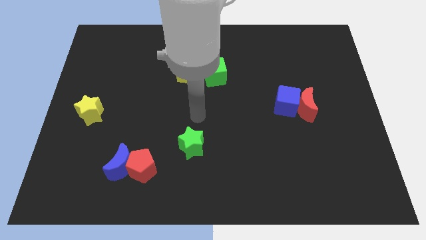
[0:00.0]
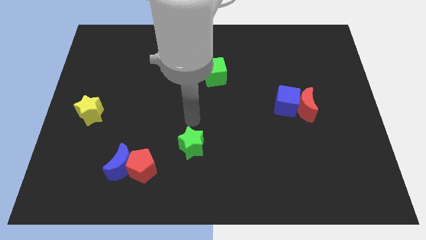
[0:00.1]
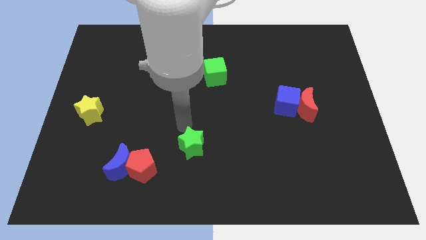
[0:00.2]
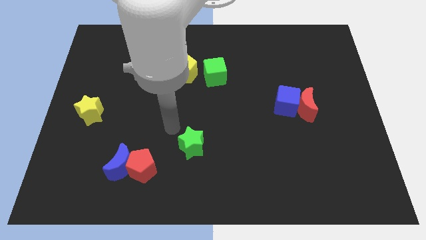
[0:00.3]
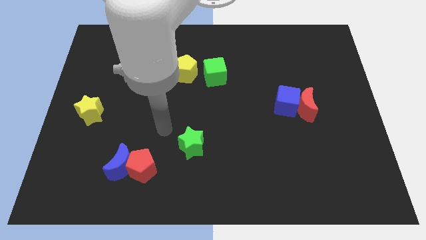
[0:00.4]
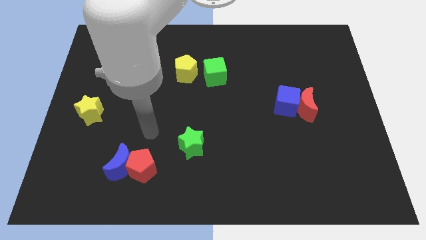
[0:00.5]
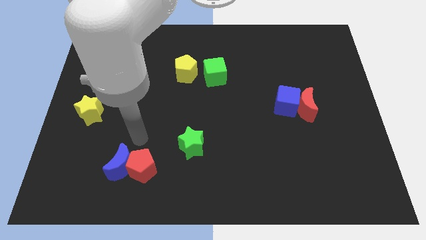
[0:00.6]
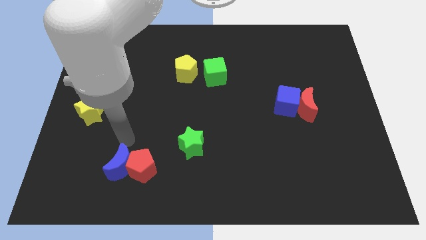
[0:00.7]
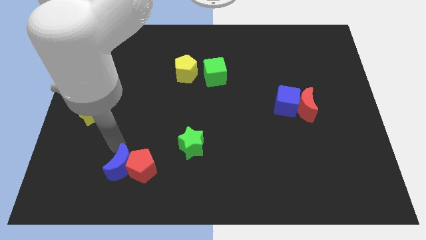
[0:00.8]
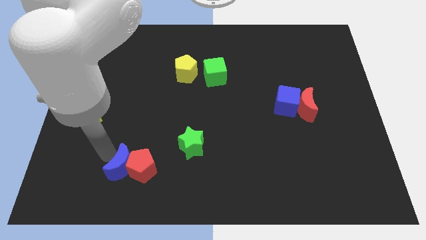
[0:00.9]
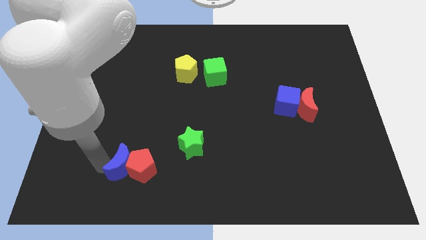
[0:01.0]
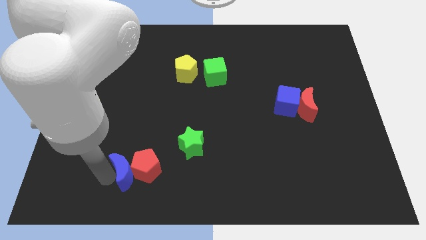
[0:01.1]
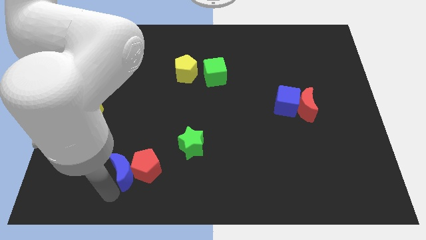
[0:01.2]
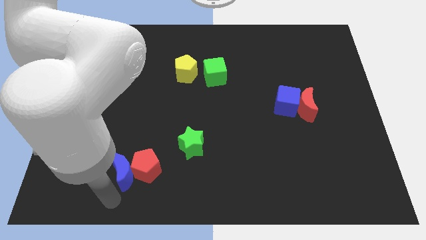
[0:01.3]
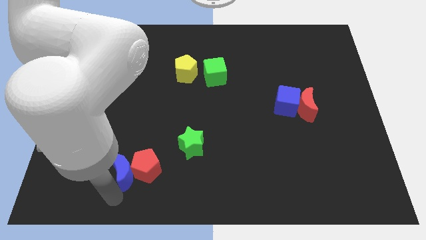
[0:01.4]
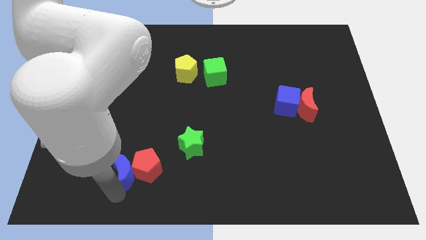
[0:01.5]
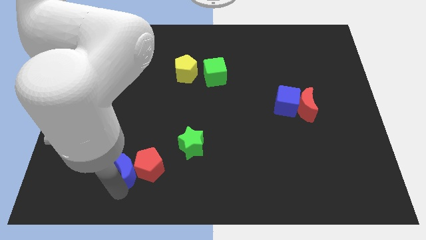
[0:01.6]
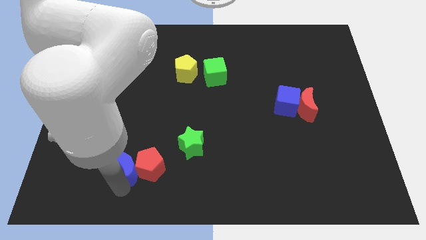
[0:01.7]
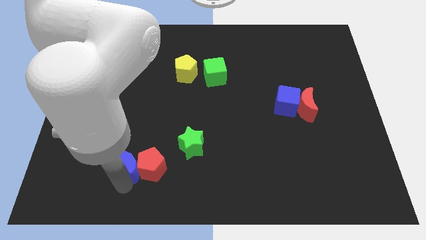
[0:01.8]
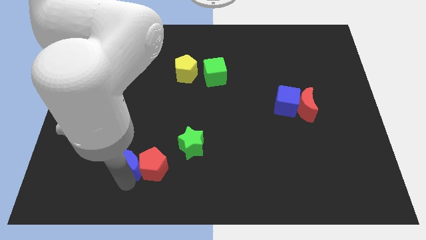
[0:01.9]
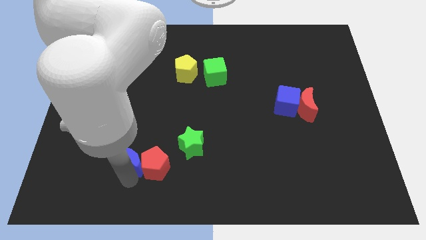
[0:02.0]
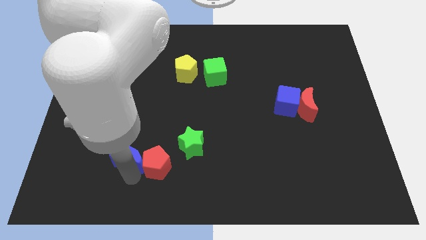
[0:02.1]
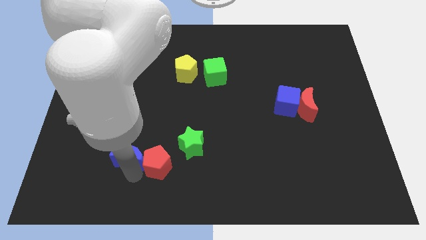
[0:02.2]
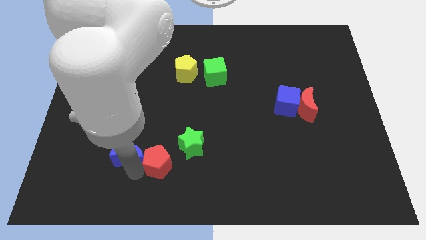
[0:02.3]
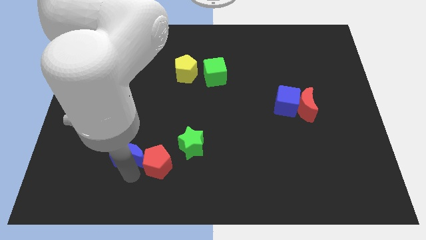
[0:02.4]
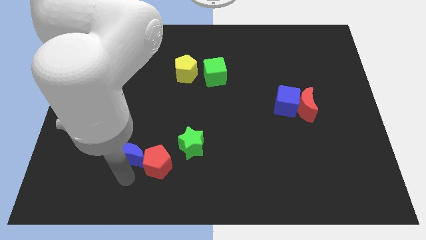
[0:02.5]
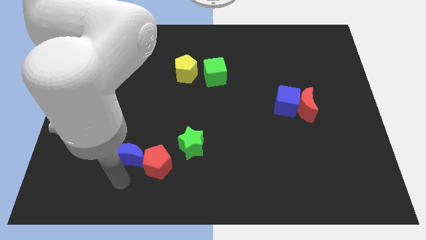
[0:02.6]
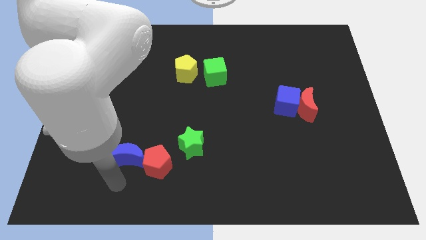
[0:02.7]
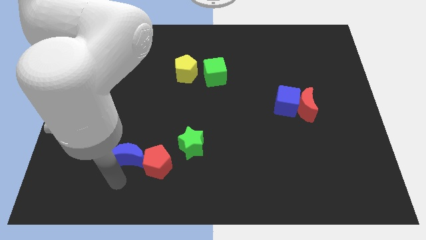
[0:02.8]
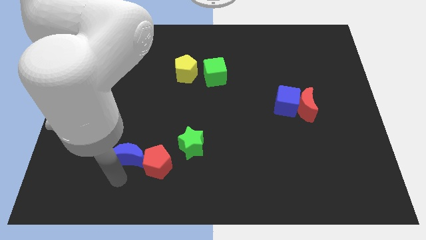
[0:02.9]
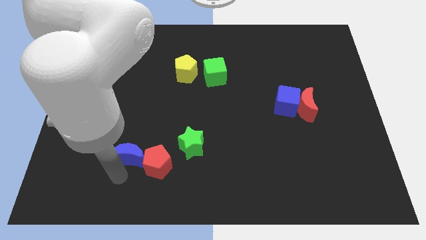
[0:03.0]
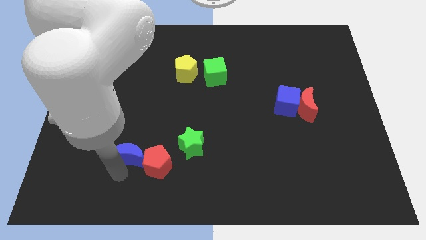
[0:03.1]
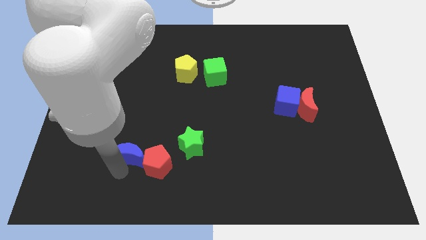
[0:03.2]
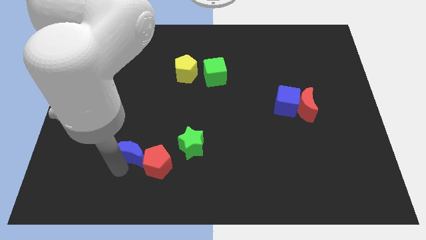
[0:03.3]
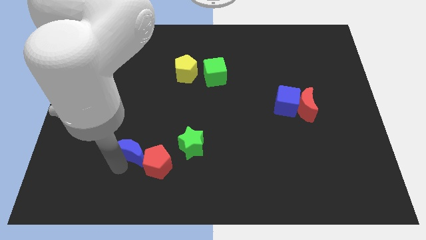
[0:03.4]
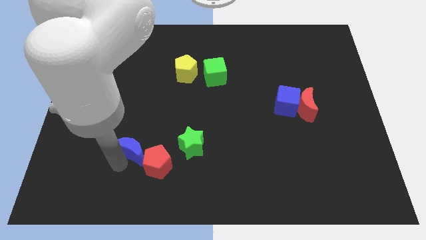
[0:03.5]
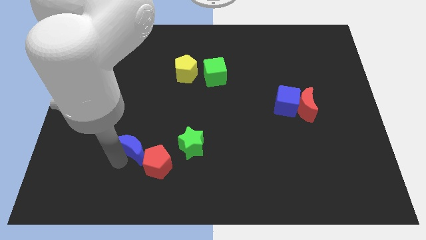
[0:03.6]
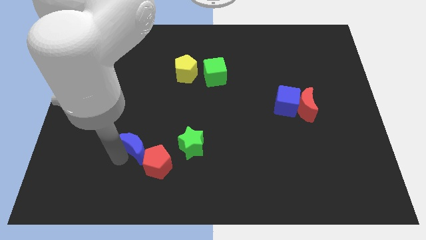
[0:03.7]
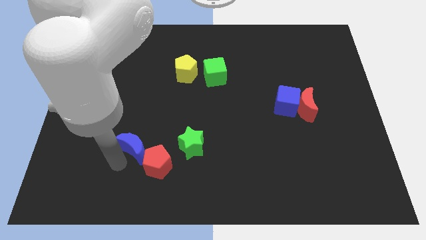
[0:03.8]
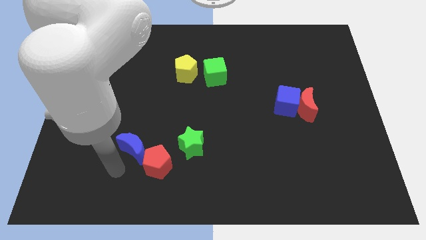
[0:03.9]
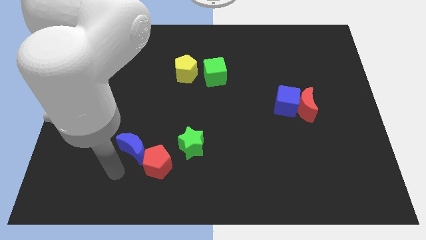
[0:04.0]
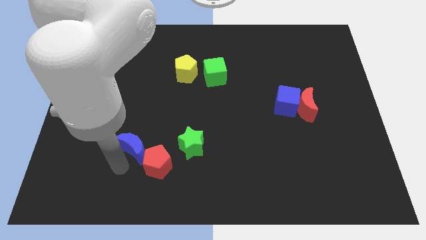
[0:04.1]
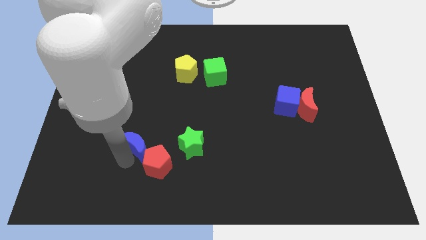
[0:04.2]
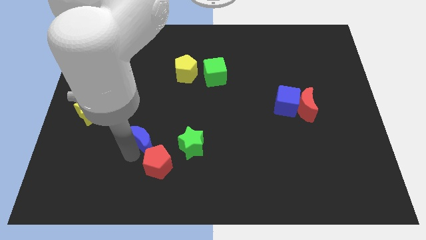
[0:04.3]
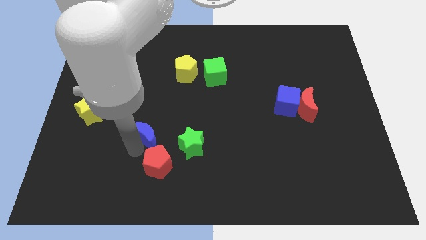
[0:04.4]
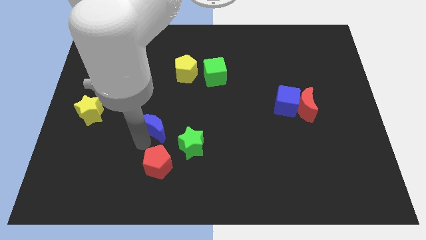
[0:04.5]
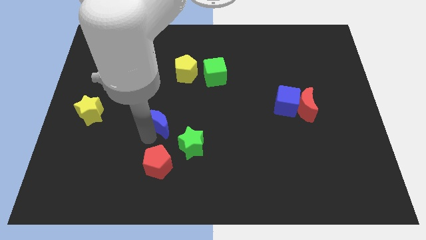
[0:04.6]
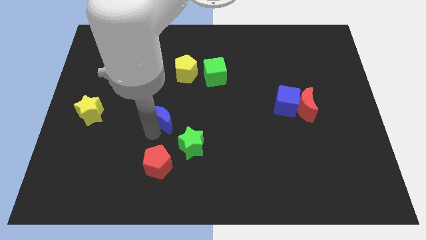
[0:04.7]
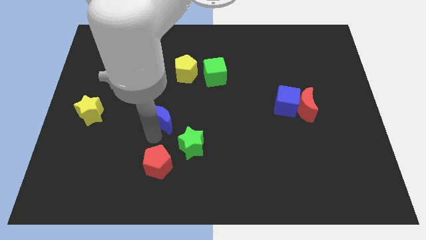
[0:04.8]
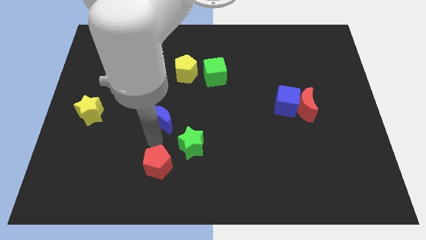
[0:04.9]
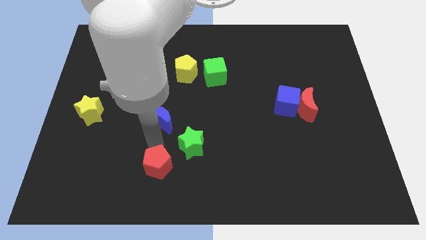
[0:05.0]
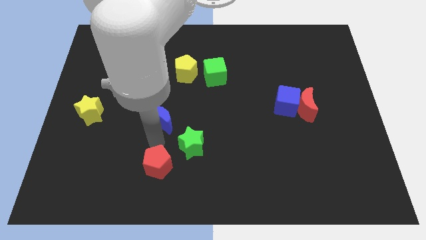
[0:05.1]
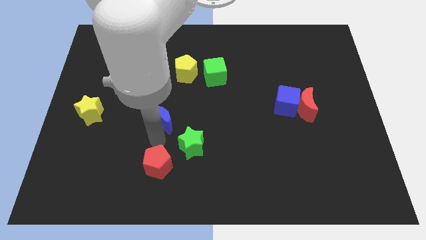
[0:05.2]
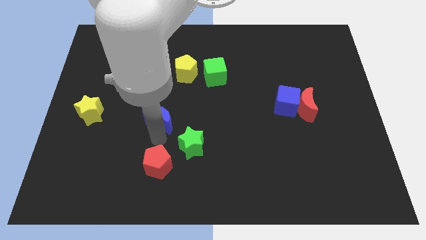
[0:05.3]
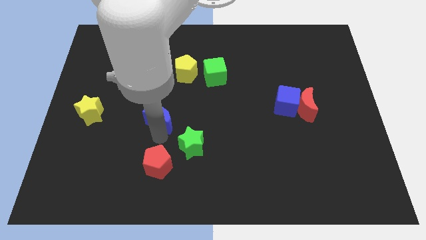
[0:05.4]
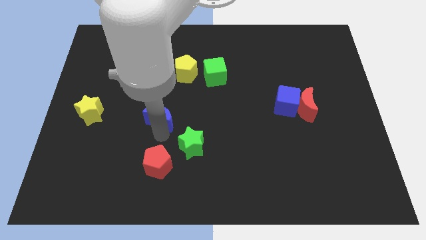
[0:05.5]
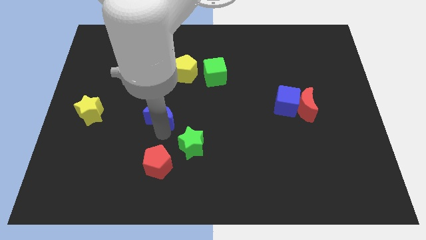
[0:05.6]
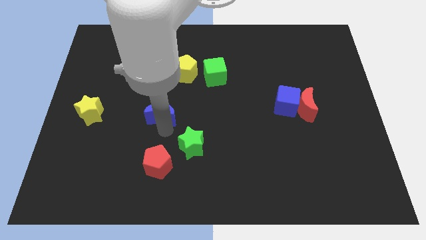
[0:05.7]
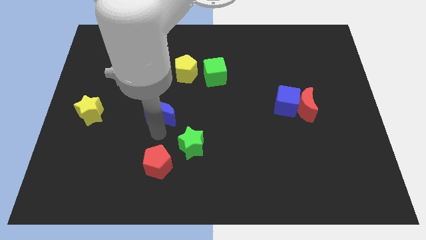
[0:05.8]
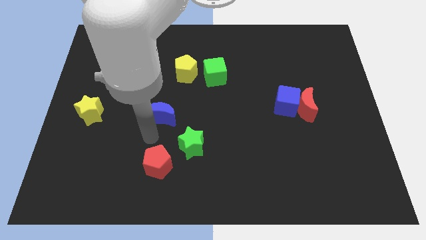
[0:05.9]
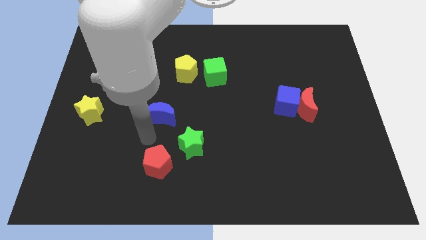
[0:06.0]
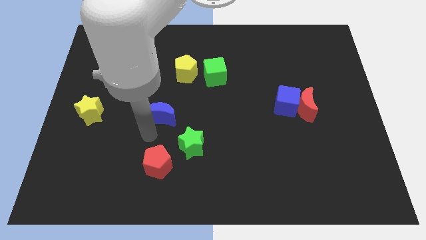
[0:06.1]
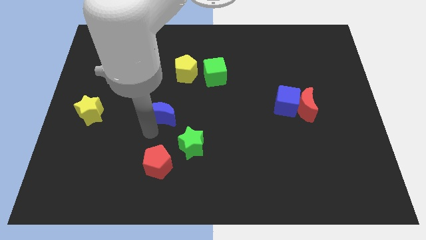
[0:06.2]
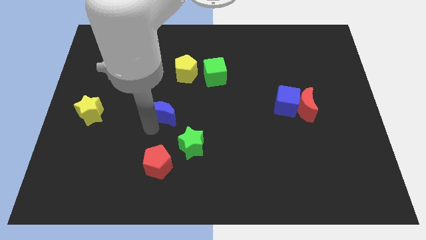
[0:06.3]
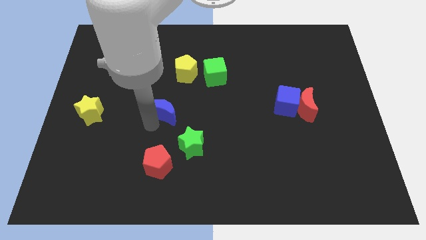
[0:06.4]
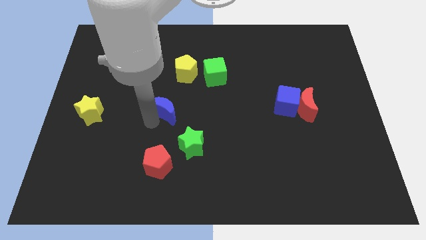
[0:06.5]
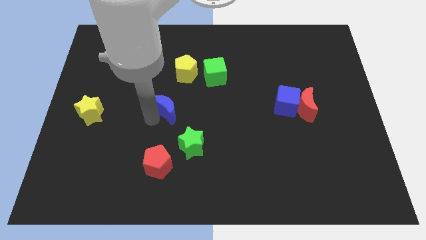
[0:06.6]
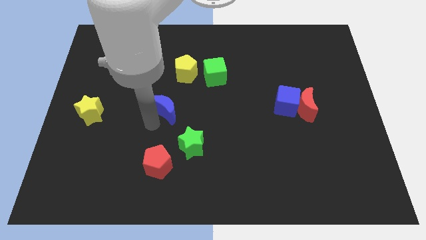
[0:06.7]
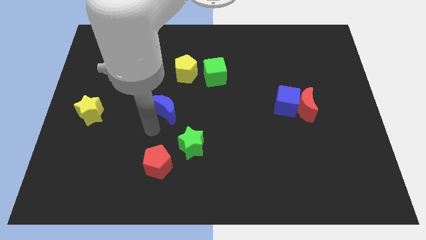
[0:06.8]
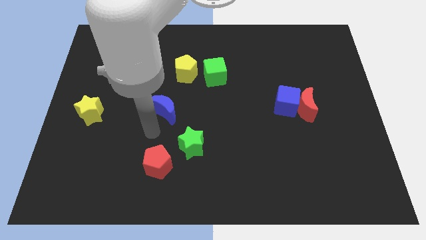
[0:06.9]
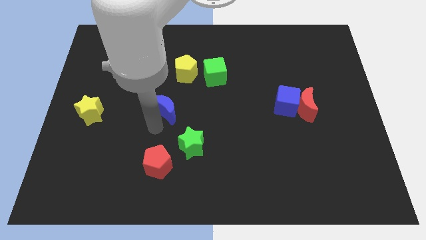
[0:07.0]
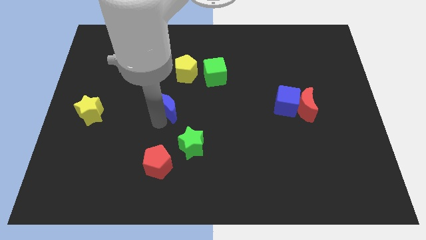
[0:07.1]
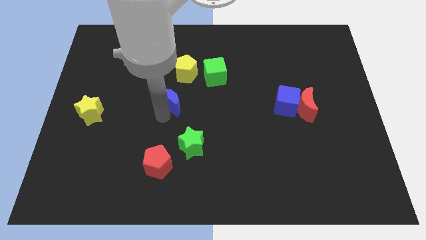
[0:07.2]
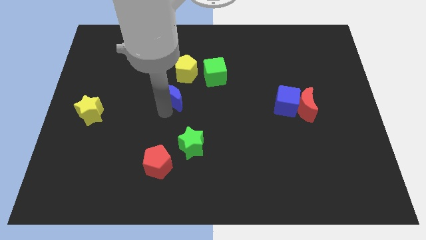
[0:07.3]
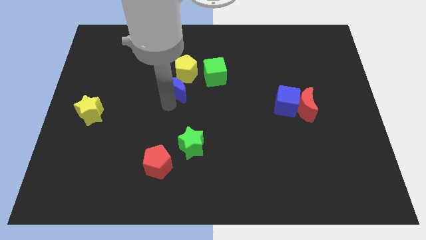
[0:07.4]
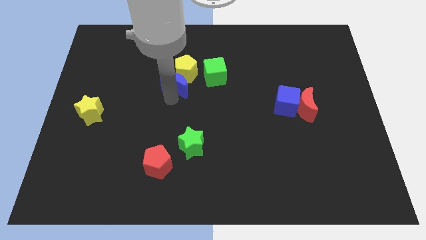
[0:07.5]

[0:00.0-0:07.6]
move the blue moon to the yellow pentagon
